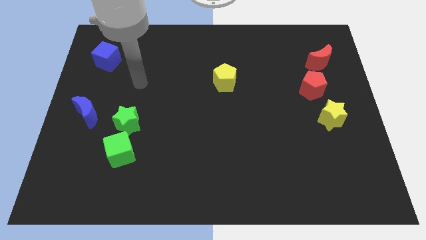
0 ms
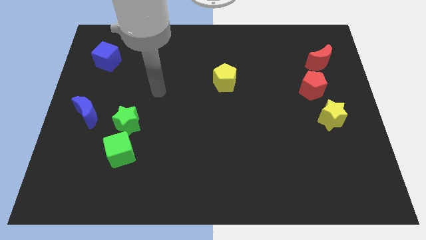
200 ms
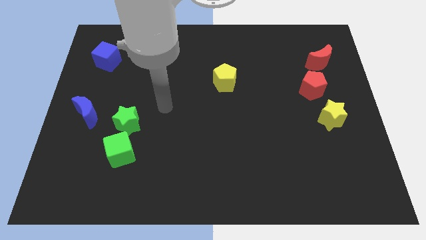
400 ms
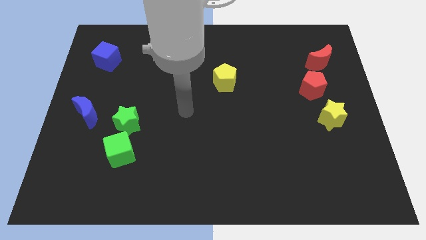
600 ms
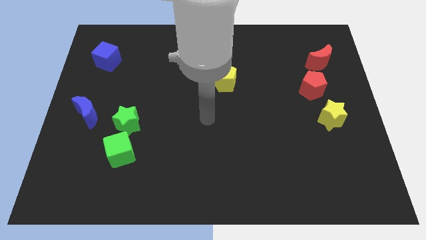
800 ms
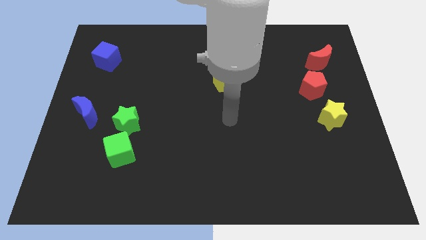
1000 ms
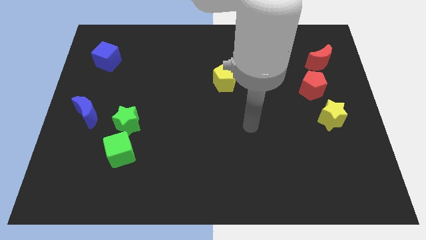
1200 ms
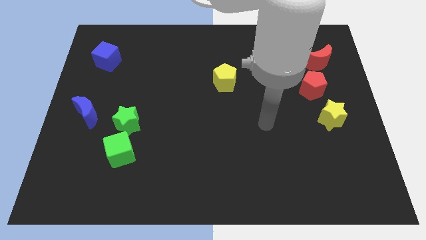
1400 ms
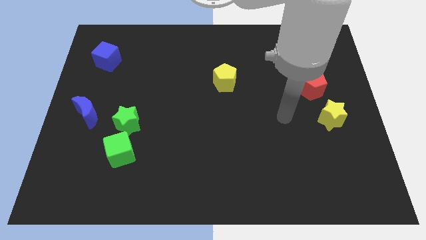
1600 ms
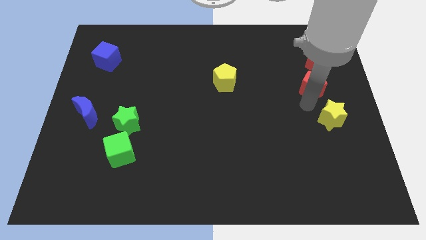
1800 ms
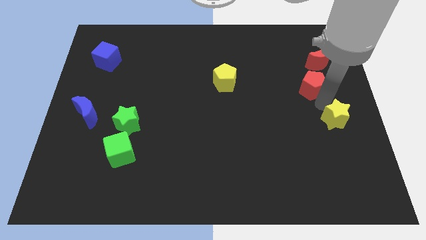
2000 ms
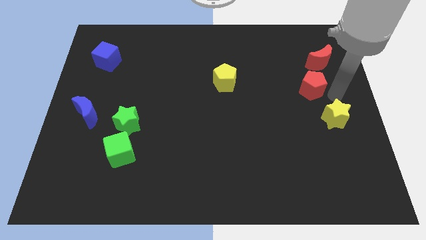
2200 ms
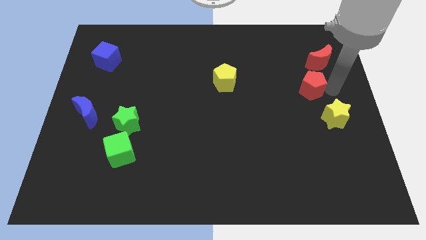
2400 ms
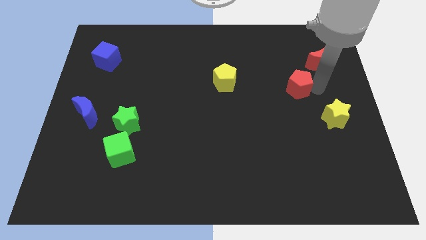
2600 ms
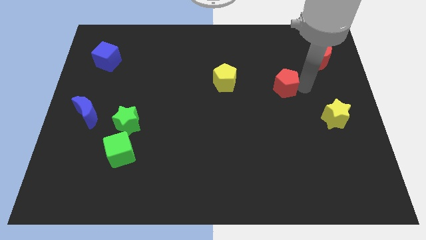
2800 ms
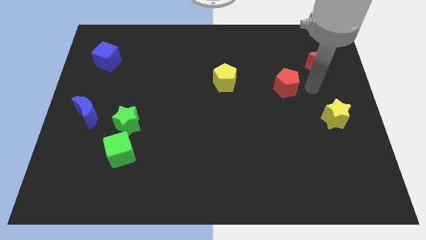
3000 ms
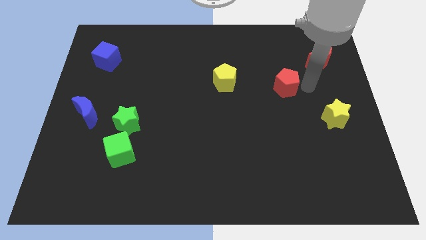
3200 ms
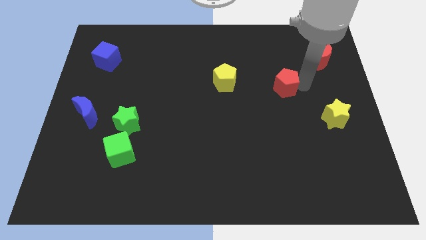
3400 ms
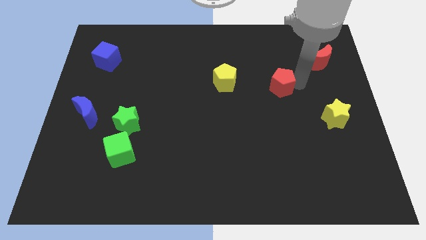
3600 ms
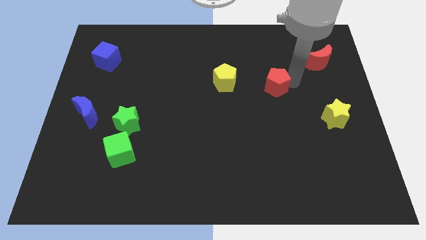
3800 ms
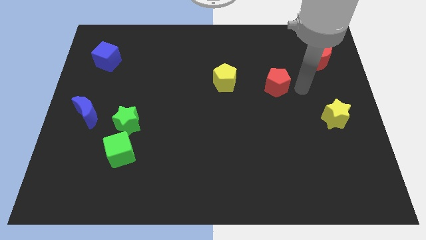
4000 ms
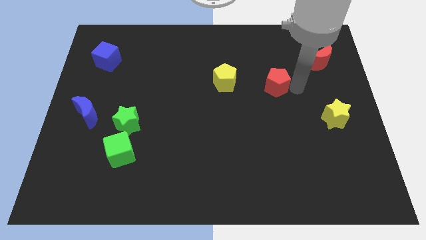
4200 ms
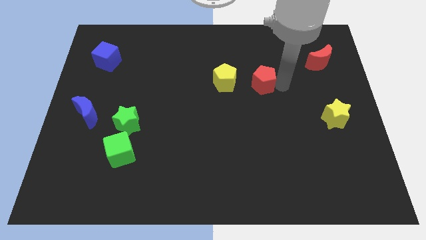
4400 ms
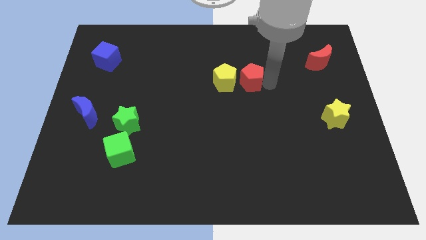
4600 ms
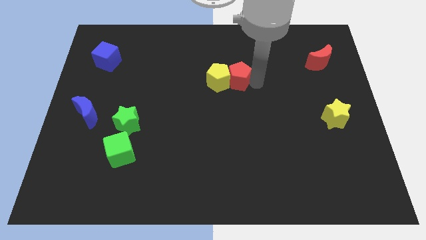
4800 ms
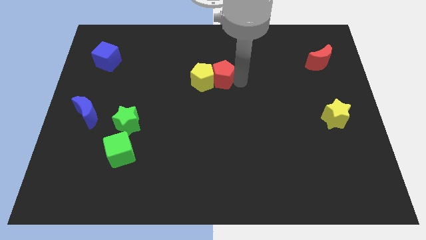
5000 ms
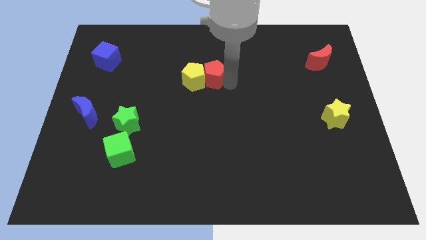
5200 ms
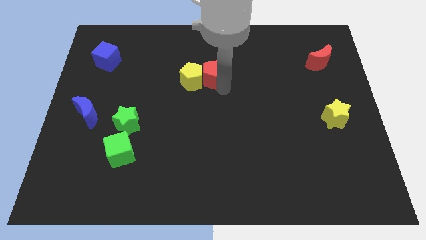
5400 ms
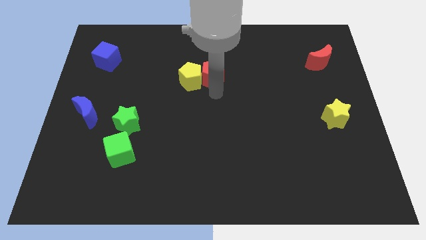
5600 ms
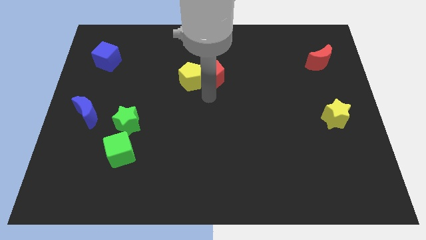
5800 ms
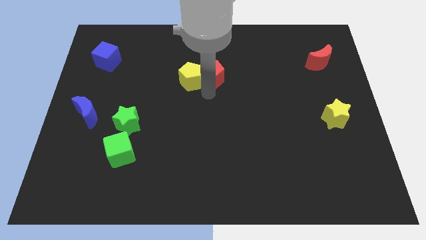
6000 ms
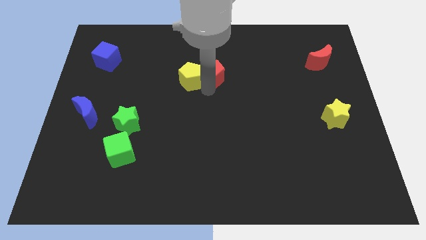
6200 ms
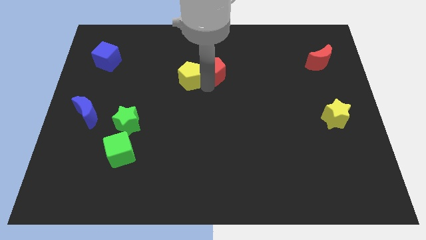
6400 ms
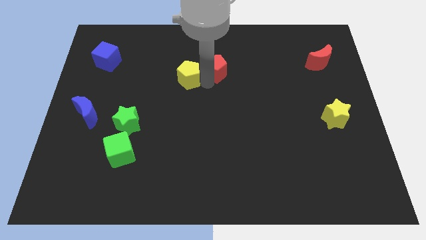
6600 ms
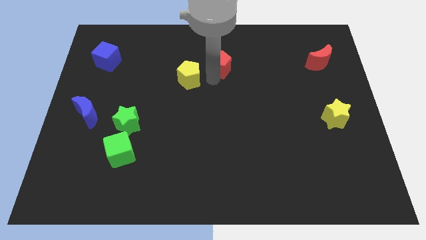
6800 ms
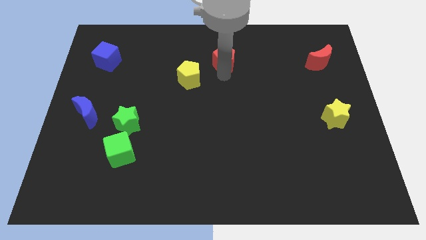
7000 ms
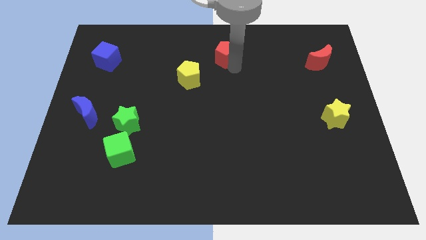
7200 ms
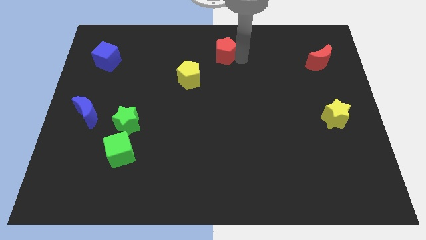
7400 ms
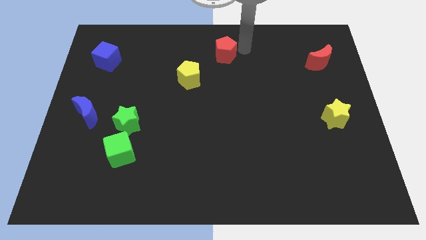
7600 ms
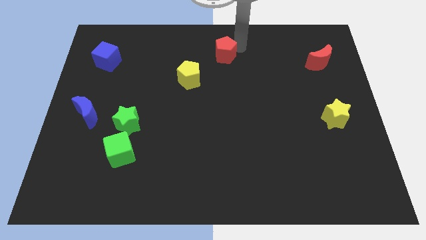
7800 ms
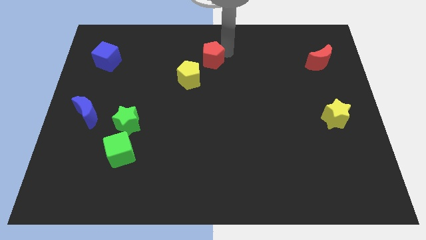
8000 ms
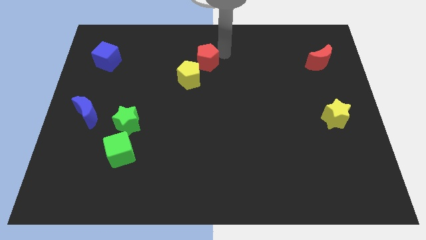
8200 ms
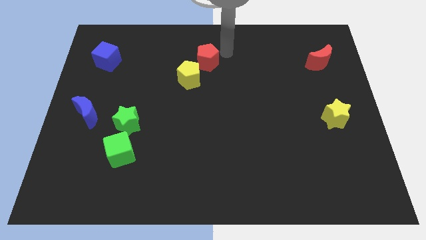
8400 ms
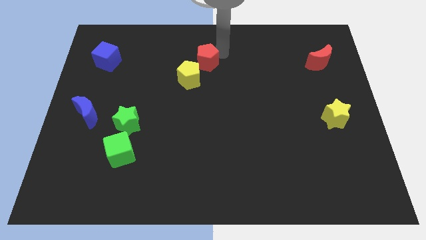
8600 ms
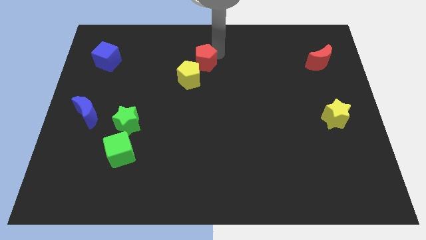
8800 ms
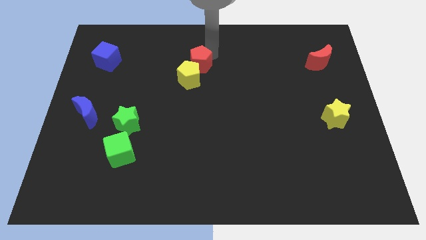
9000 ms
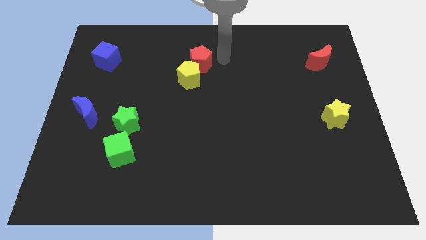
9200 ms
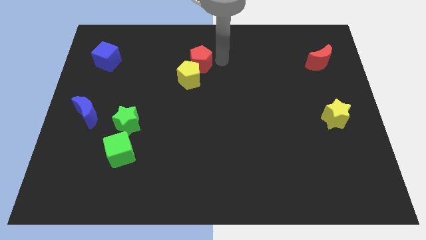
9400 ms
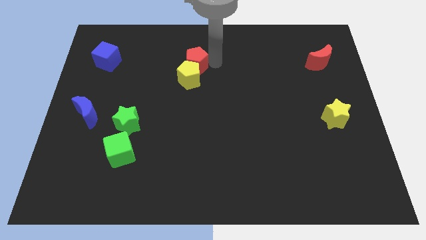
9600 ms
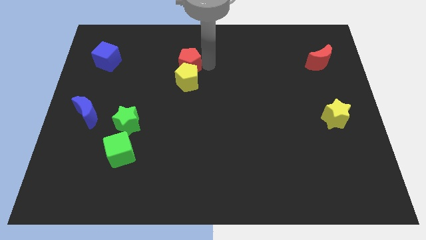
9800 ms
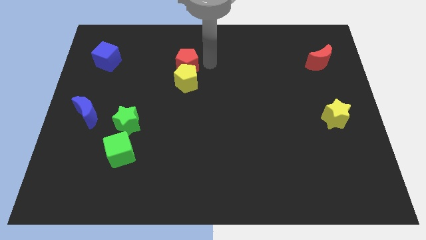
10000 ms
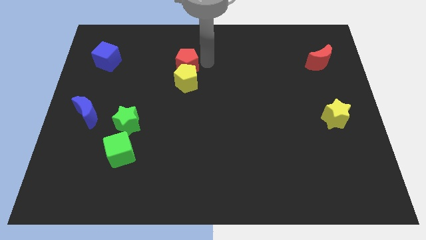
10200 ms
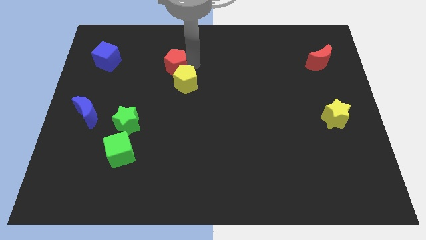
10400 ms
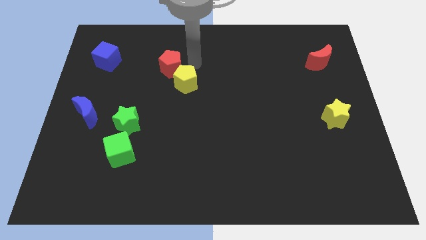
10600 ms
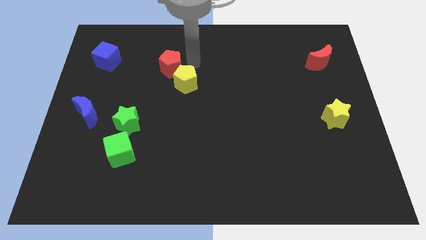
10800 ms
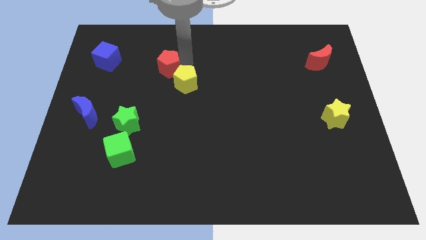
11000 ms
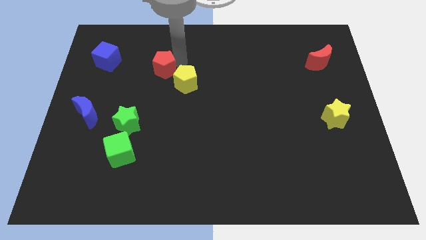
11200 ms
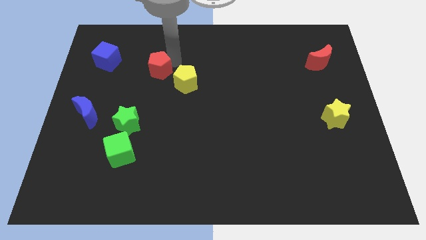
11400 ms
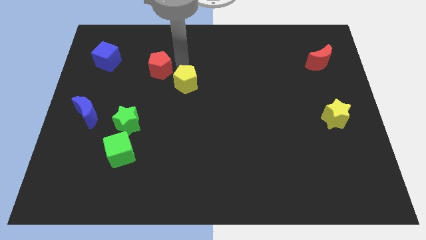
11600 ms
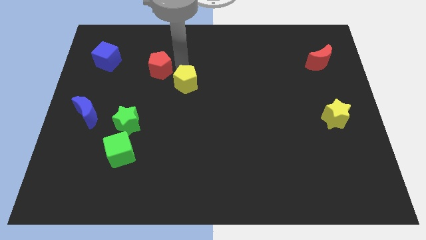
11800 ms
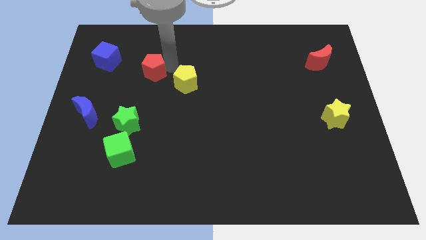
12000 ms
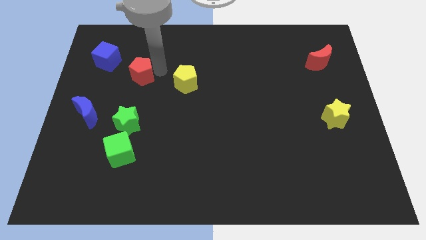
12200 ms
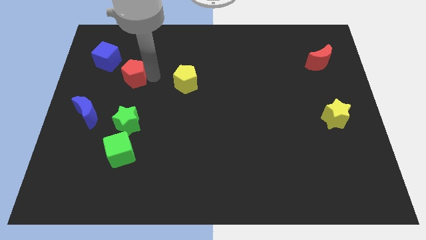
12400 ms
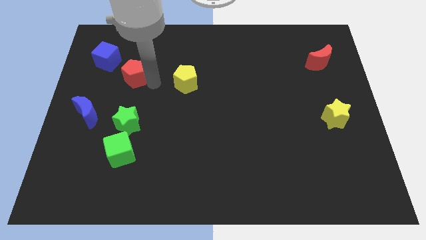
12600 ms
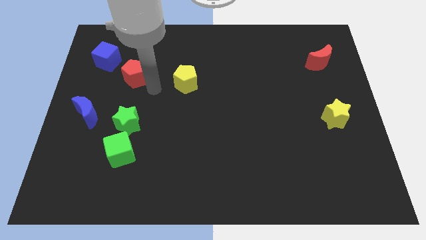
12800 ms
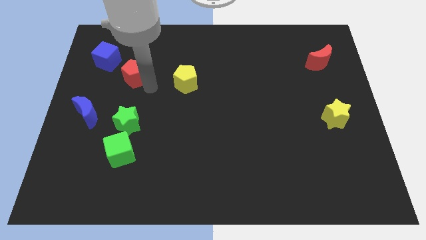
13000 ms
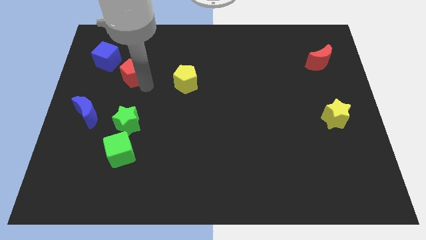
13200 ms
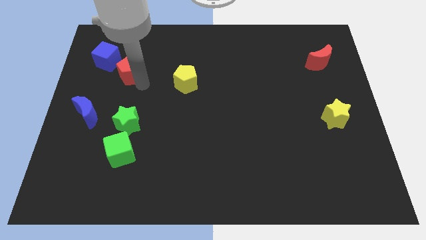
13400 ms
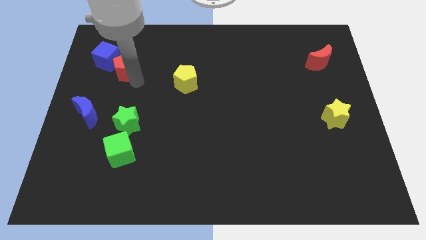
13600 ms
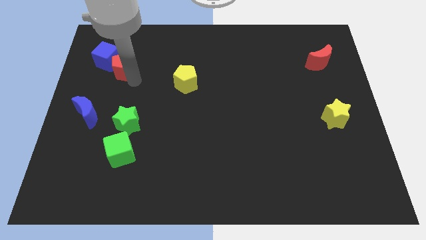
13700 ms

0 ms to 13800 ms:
put the red pentagon next to the blue cube
